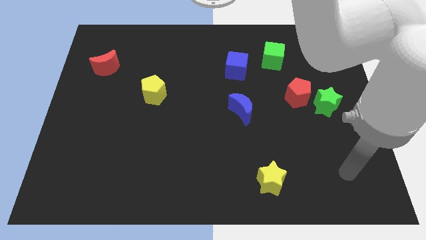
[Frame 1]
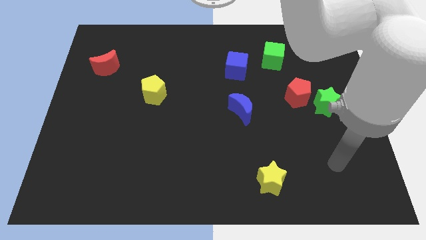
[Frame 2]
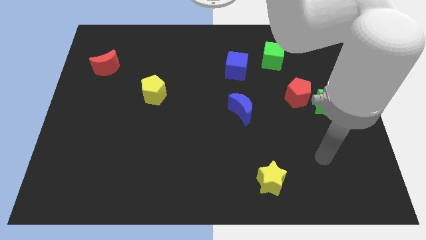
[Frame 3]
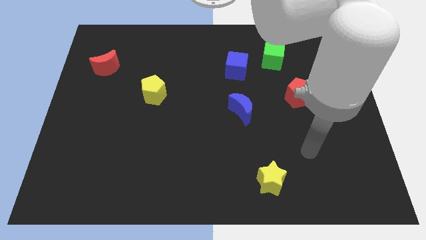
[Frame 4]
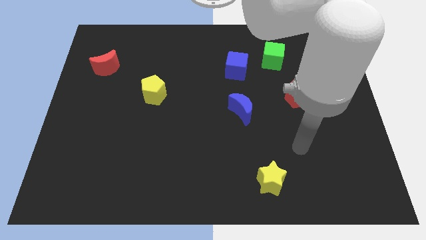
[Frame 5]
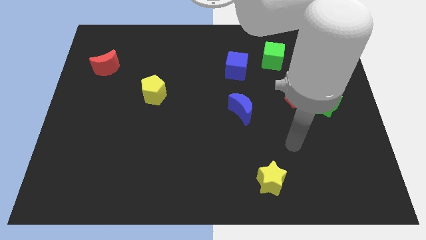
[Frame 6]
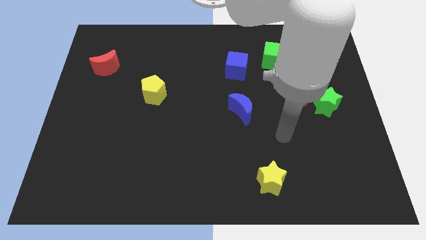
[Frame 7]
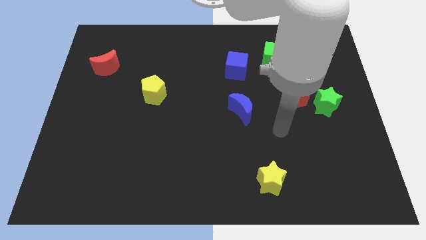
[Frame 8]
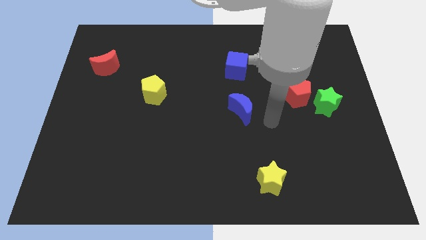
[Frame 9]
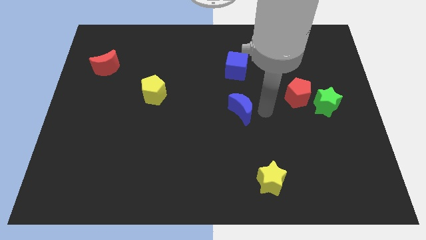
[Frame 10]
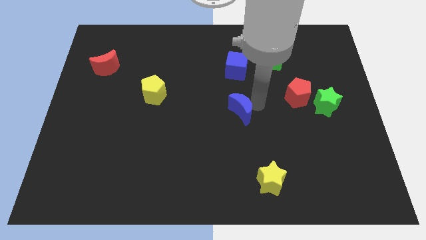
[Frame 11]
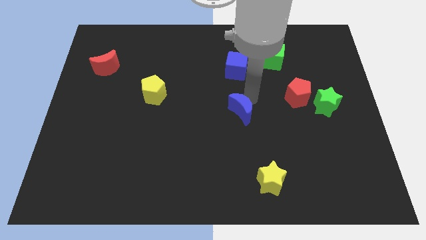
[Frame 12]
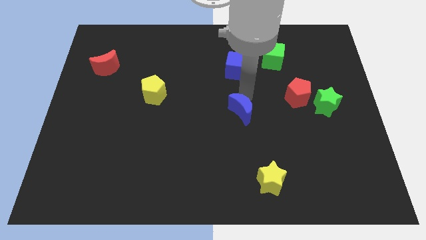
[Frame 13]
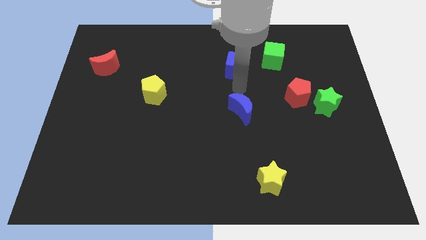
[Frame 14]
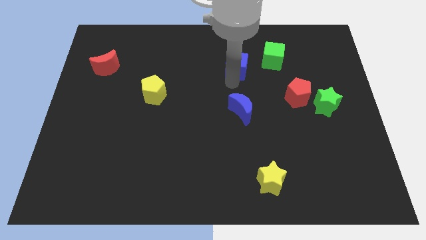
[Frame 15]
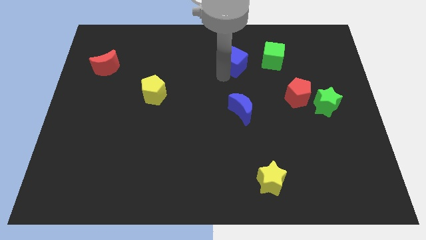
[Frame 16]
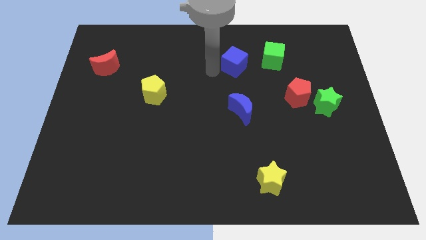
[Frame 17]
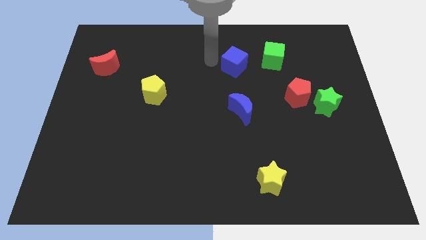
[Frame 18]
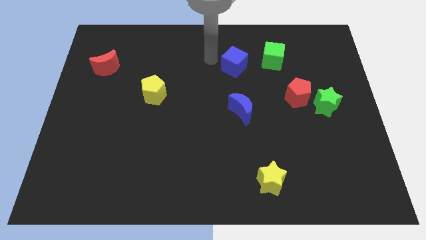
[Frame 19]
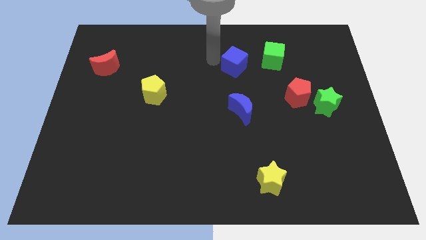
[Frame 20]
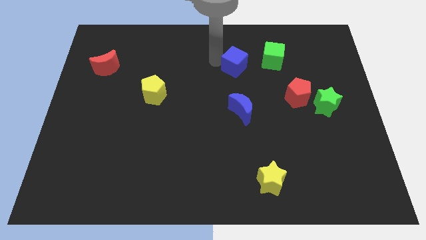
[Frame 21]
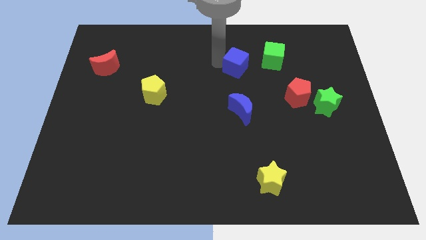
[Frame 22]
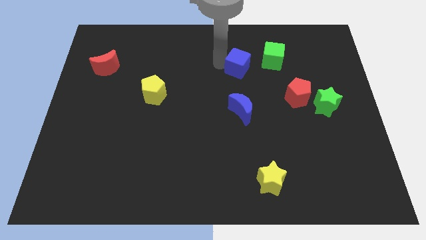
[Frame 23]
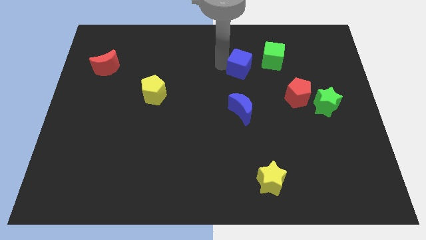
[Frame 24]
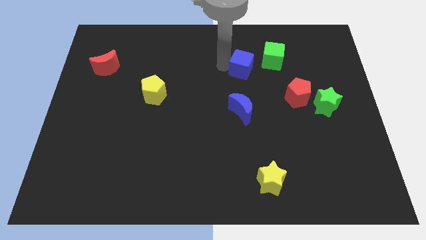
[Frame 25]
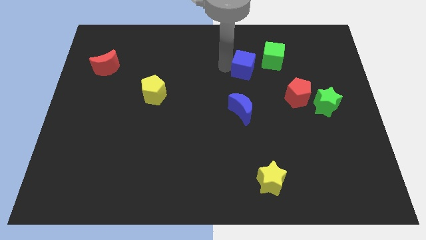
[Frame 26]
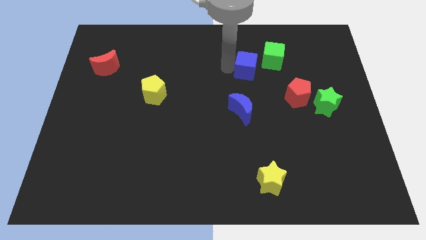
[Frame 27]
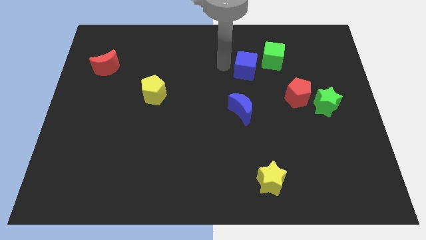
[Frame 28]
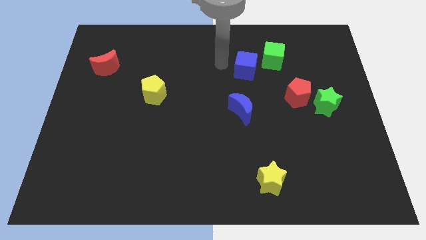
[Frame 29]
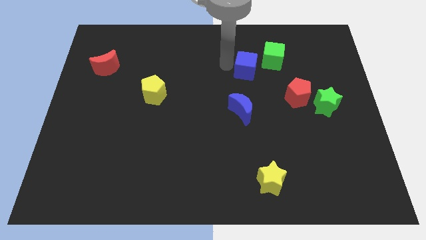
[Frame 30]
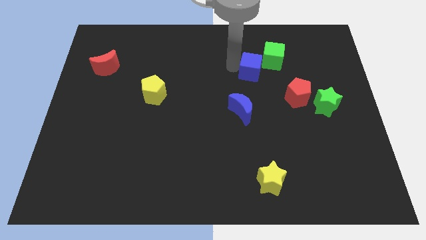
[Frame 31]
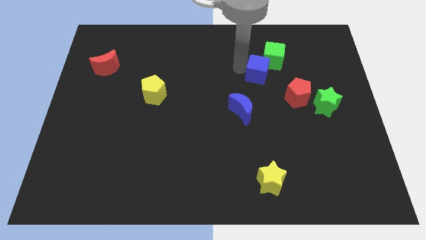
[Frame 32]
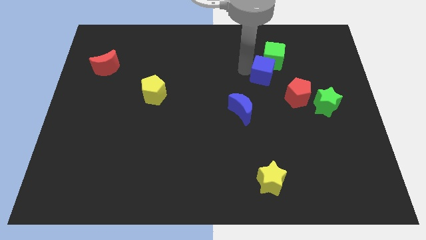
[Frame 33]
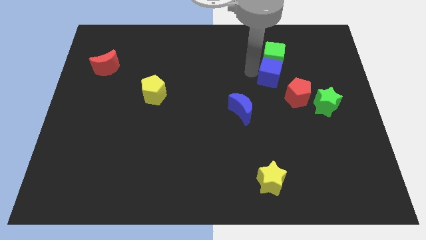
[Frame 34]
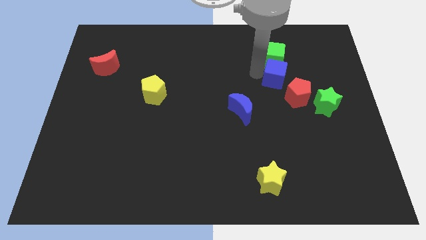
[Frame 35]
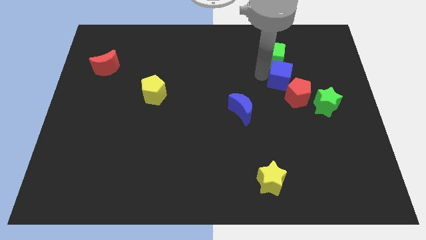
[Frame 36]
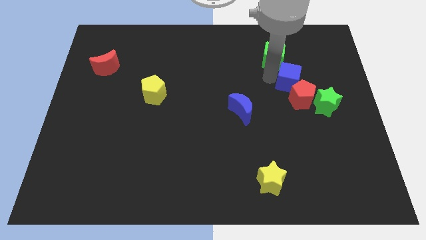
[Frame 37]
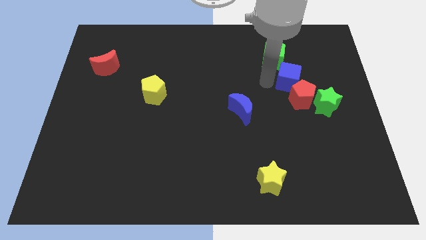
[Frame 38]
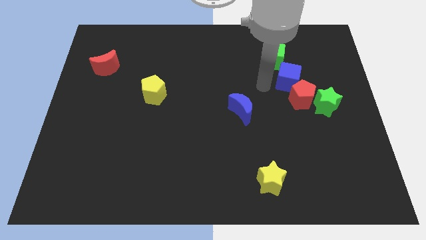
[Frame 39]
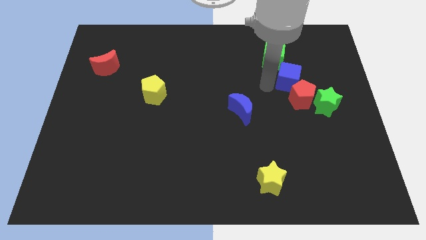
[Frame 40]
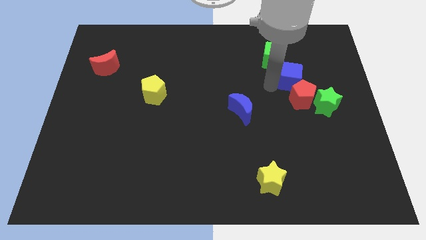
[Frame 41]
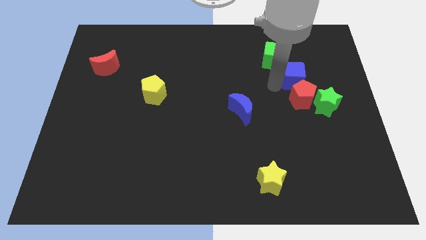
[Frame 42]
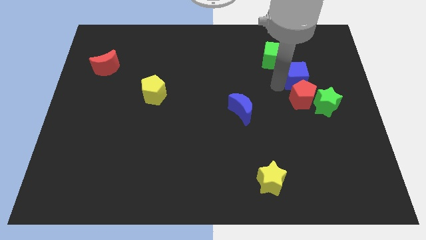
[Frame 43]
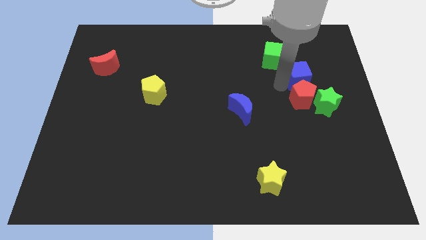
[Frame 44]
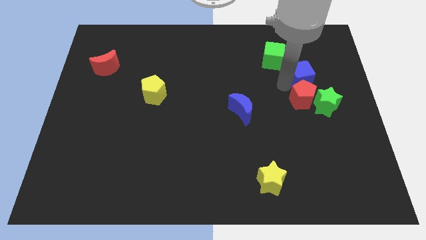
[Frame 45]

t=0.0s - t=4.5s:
move the blue cube to the top of the green star

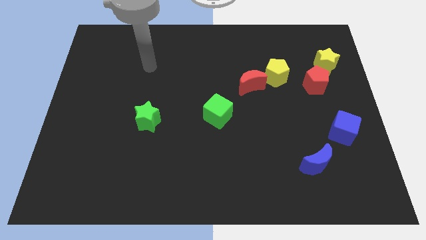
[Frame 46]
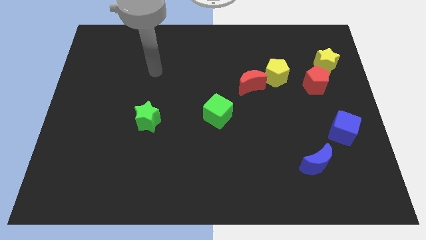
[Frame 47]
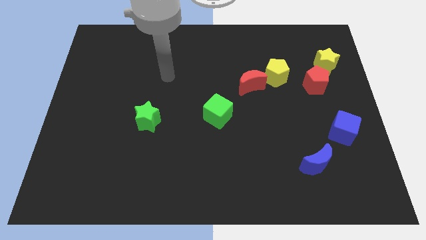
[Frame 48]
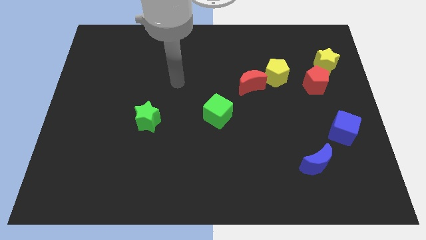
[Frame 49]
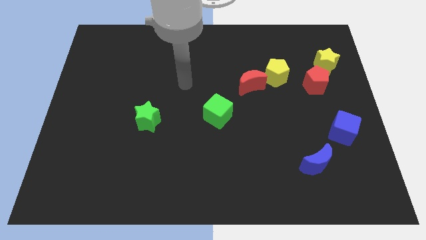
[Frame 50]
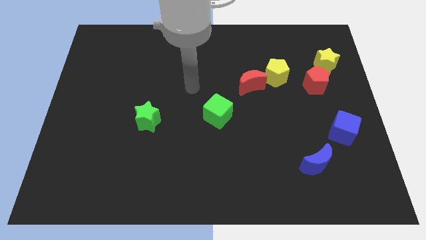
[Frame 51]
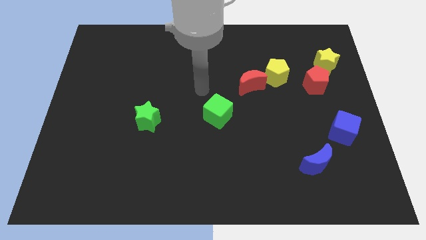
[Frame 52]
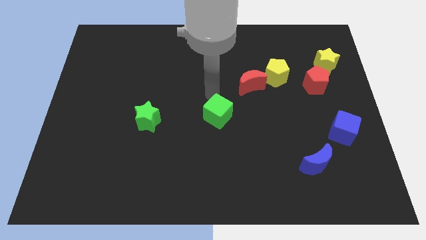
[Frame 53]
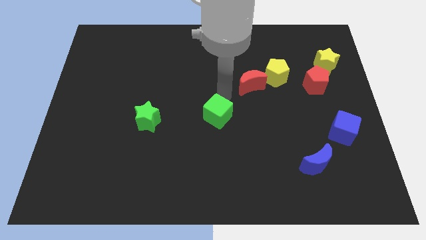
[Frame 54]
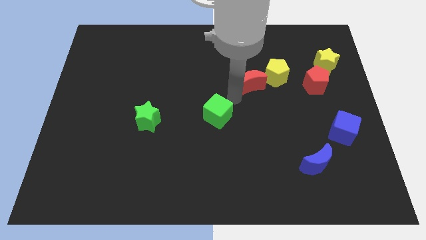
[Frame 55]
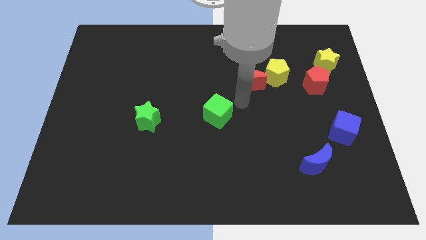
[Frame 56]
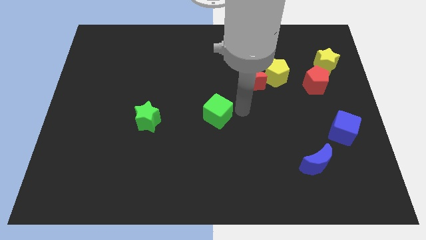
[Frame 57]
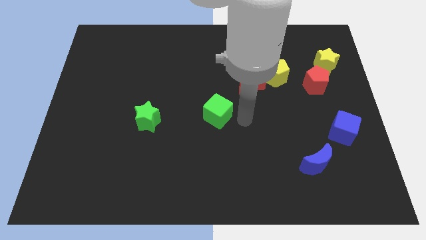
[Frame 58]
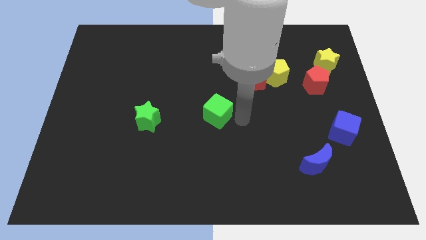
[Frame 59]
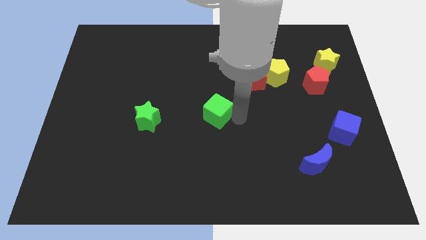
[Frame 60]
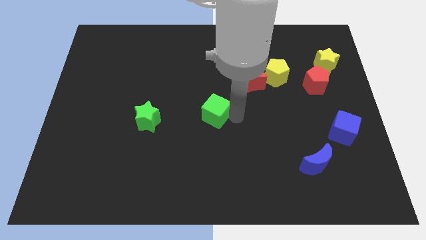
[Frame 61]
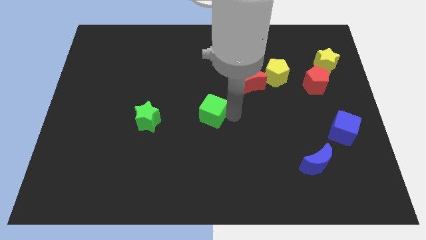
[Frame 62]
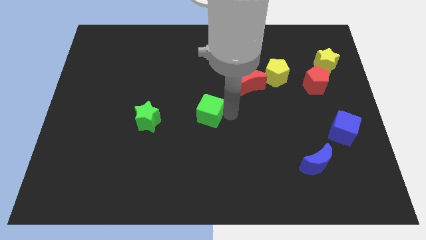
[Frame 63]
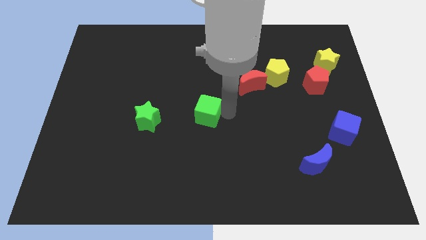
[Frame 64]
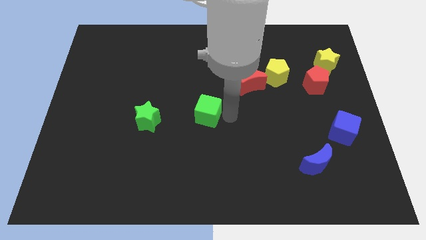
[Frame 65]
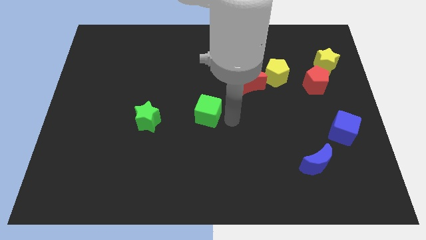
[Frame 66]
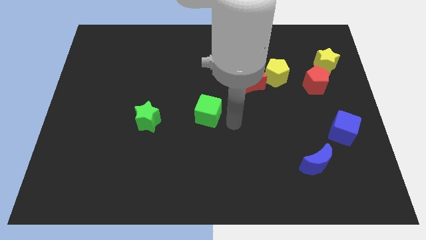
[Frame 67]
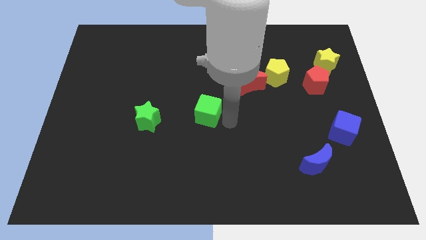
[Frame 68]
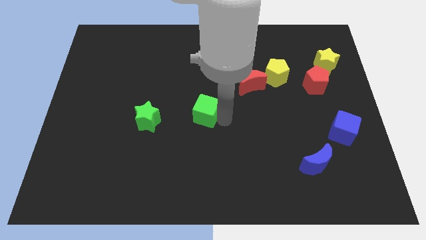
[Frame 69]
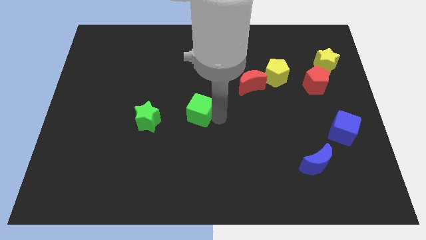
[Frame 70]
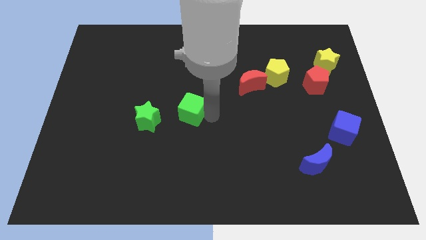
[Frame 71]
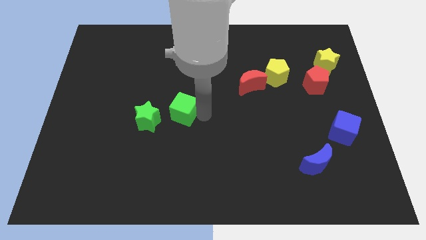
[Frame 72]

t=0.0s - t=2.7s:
push the green cube diagonally up and to the right of the green star

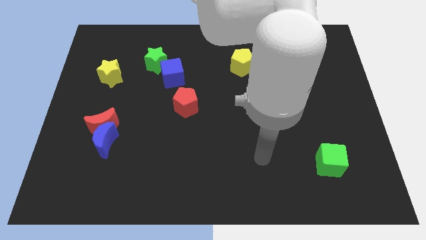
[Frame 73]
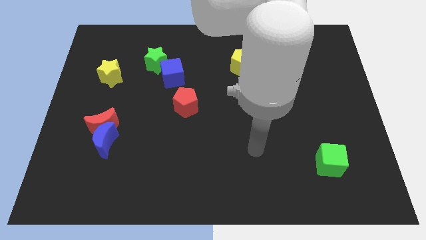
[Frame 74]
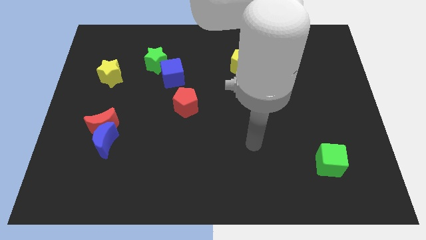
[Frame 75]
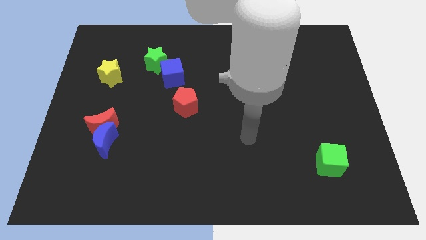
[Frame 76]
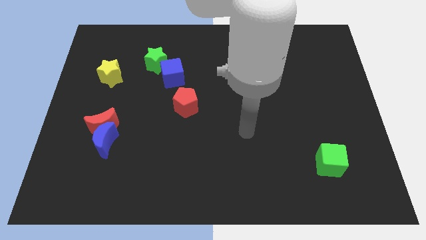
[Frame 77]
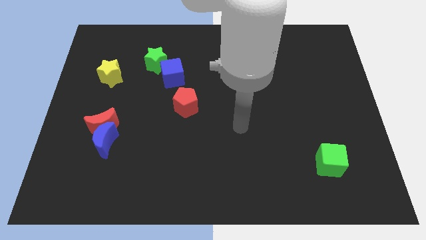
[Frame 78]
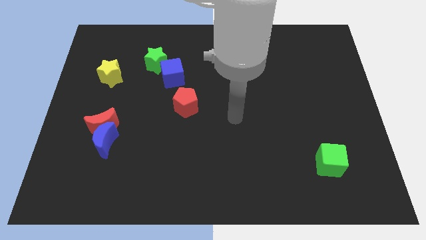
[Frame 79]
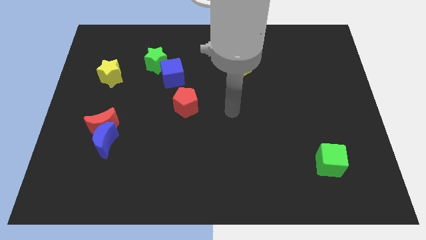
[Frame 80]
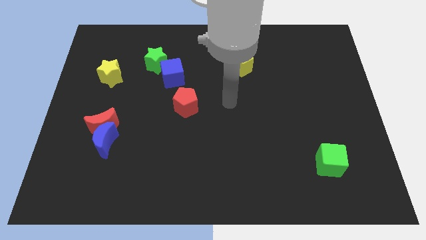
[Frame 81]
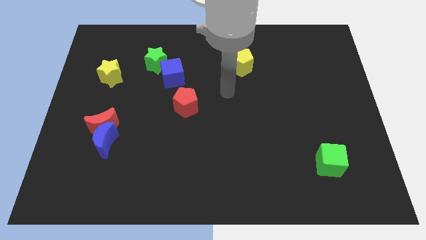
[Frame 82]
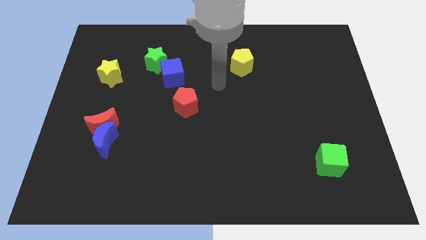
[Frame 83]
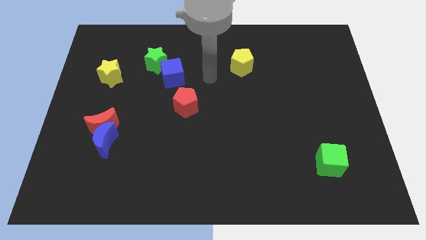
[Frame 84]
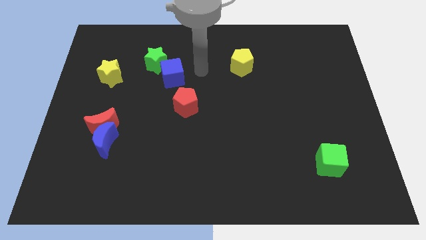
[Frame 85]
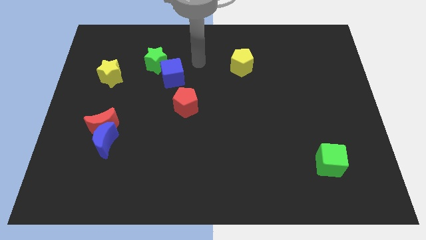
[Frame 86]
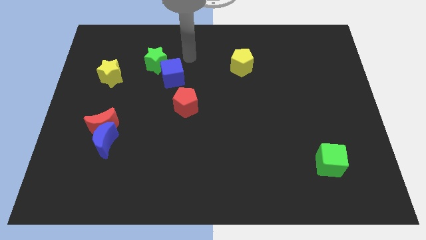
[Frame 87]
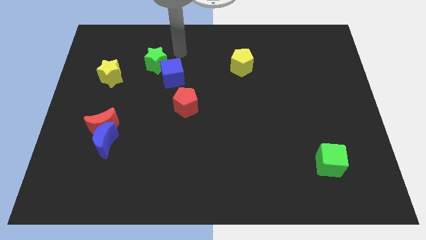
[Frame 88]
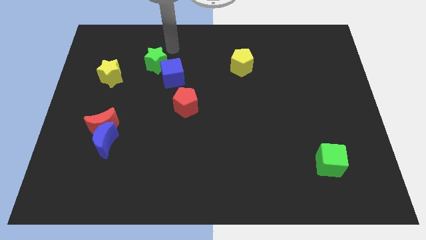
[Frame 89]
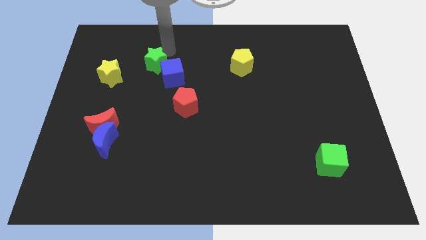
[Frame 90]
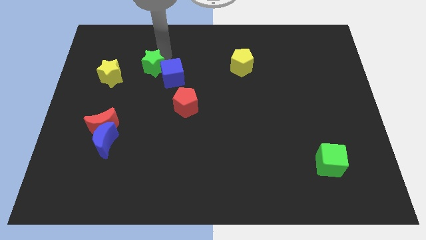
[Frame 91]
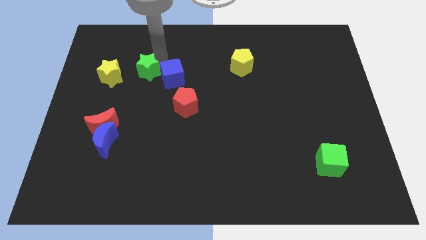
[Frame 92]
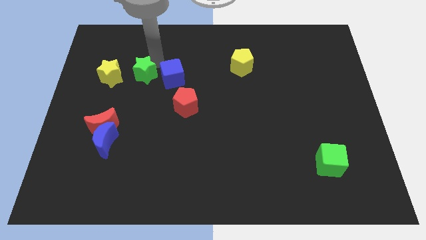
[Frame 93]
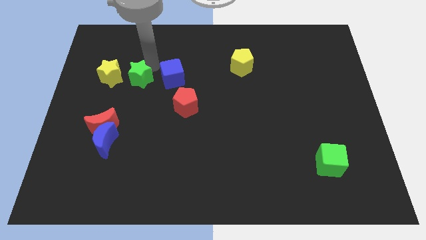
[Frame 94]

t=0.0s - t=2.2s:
push the green star to the bottom right side of the yellow star
